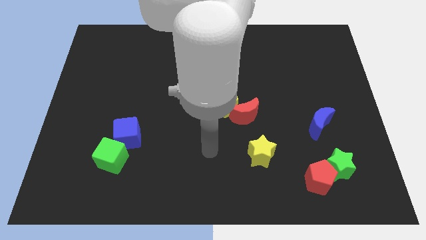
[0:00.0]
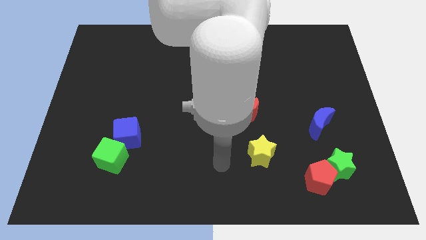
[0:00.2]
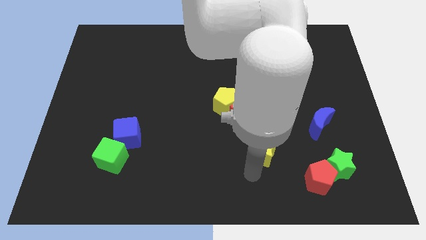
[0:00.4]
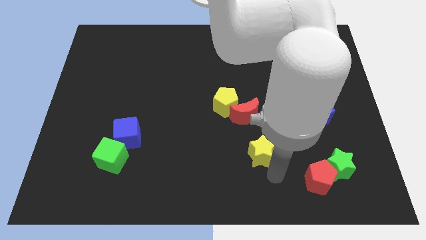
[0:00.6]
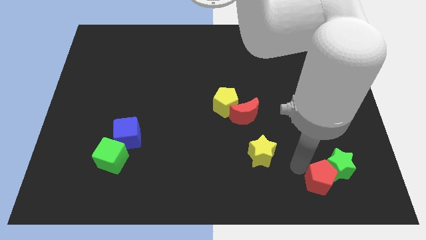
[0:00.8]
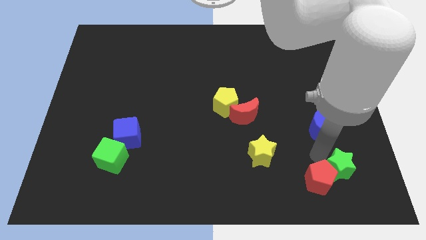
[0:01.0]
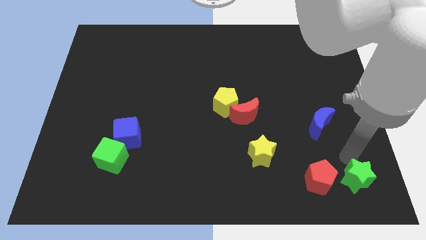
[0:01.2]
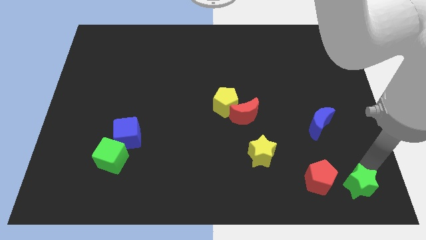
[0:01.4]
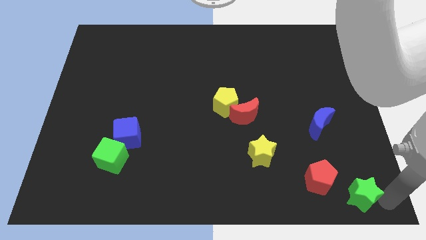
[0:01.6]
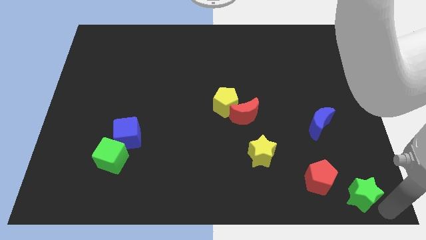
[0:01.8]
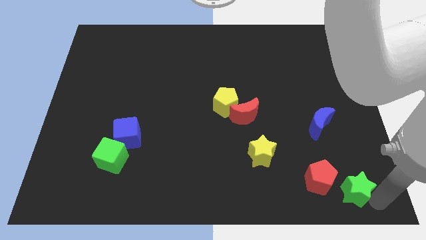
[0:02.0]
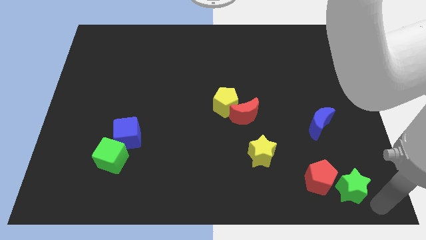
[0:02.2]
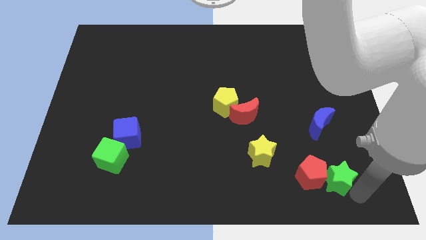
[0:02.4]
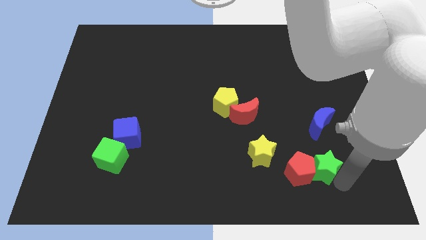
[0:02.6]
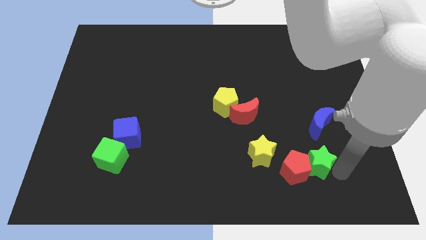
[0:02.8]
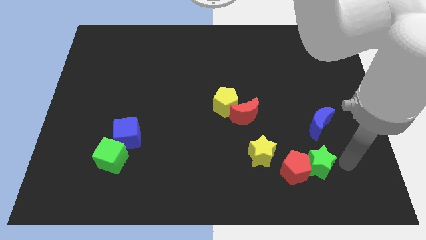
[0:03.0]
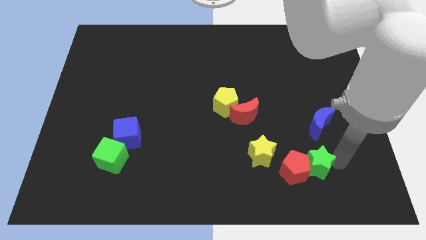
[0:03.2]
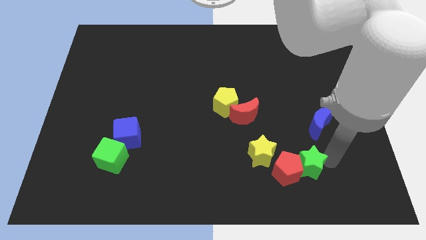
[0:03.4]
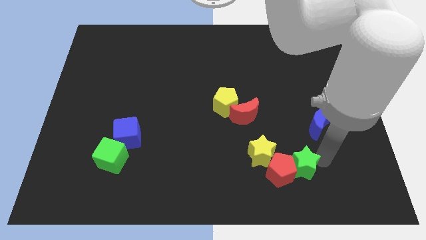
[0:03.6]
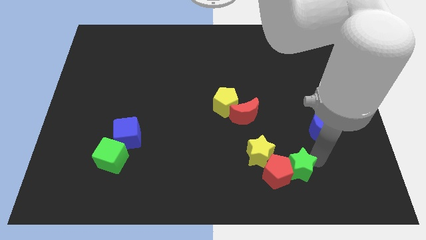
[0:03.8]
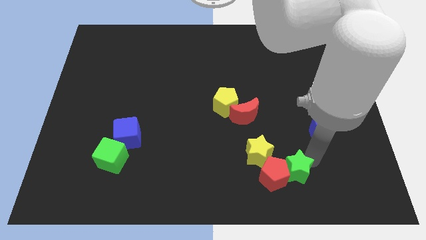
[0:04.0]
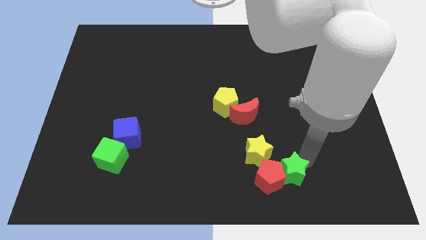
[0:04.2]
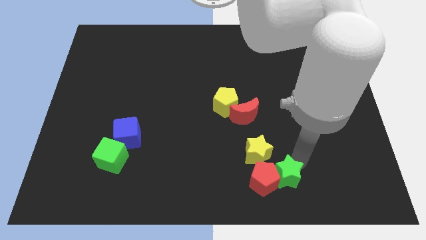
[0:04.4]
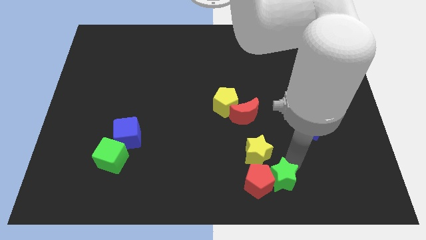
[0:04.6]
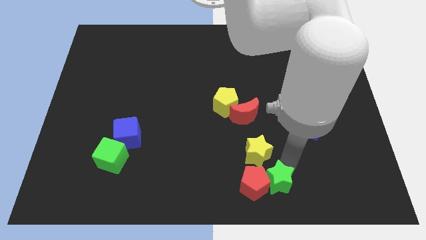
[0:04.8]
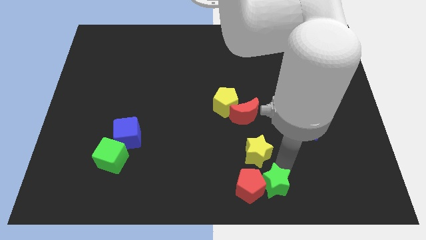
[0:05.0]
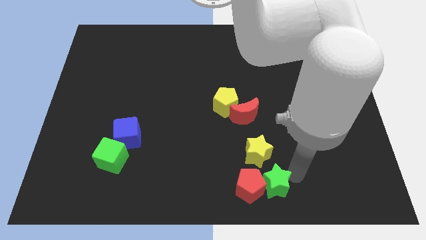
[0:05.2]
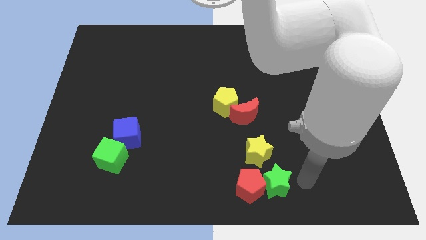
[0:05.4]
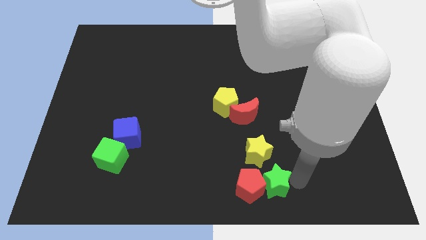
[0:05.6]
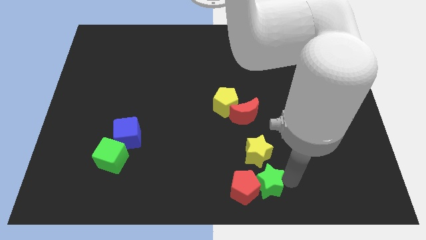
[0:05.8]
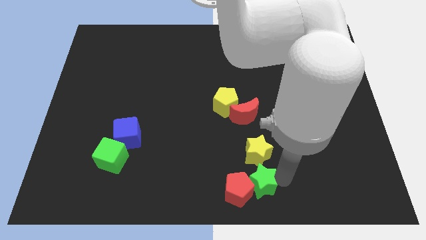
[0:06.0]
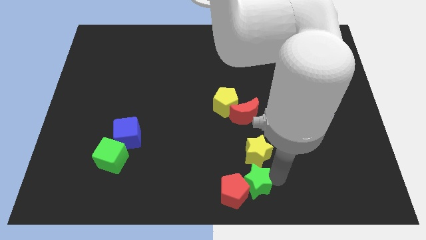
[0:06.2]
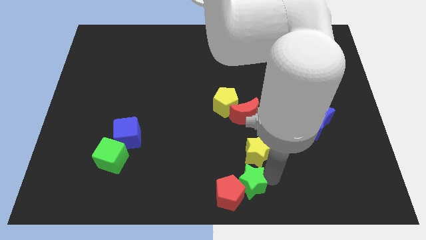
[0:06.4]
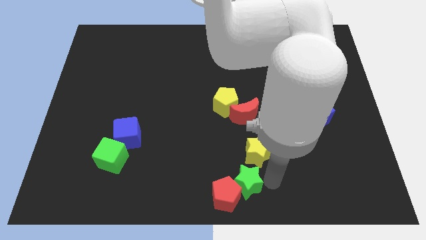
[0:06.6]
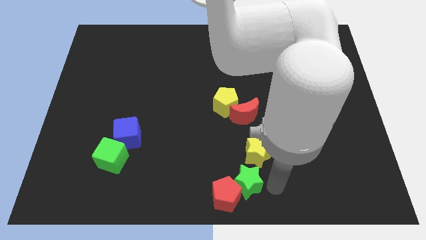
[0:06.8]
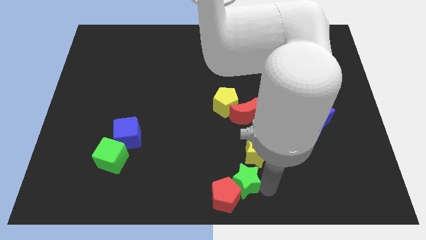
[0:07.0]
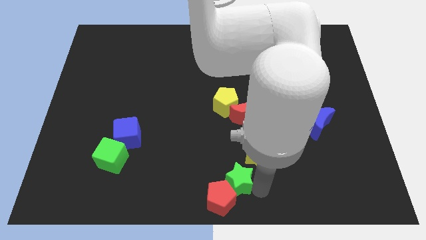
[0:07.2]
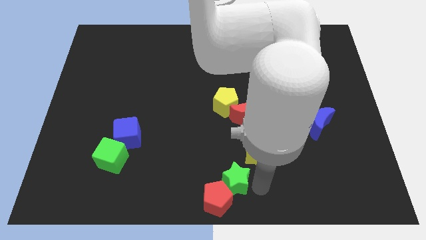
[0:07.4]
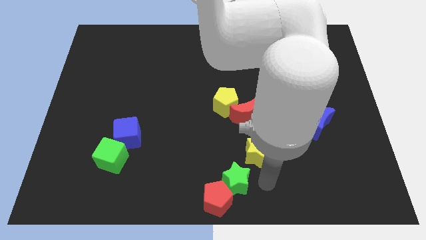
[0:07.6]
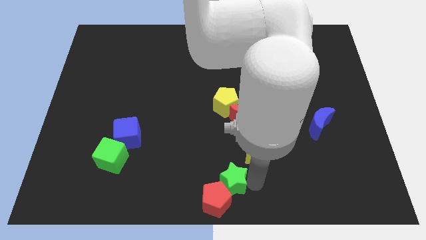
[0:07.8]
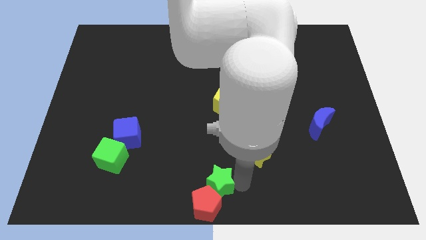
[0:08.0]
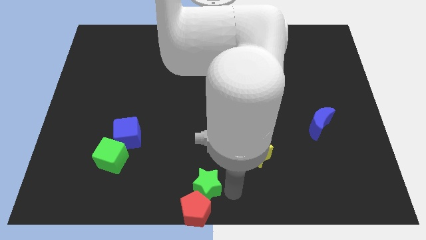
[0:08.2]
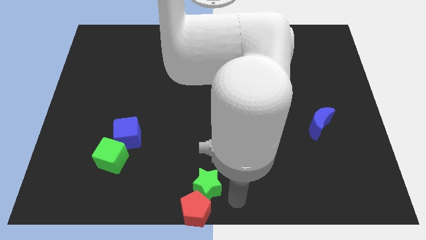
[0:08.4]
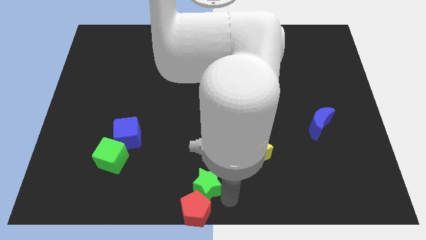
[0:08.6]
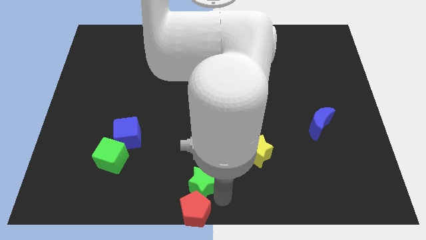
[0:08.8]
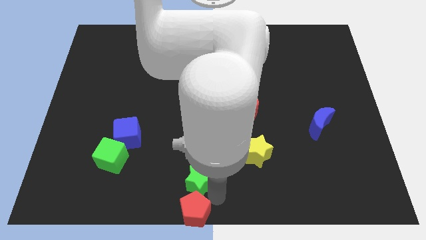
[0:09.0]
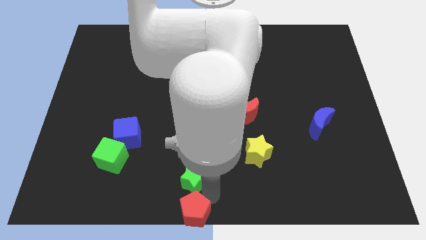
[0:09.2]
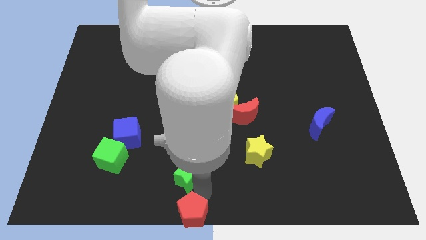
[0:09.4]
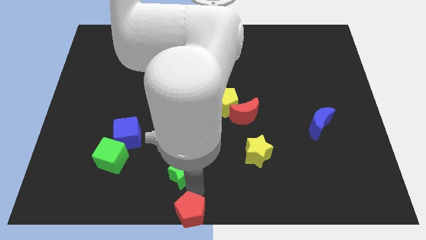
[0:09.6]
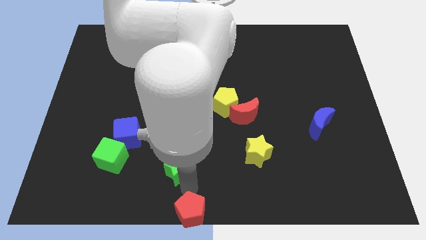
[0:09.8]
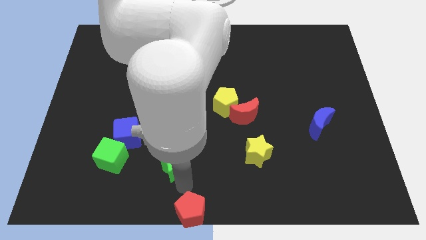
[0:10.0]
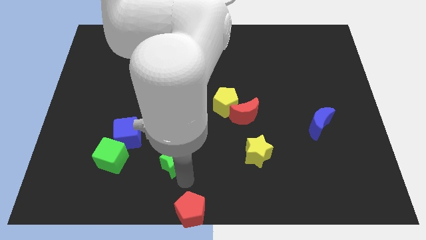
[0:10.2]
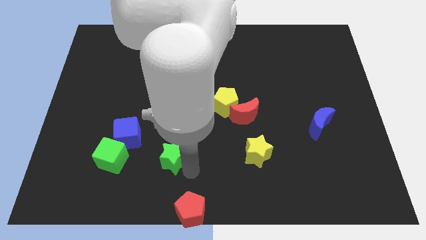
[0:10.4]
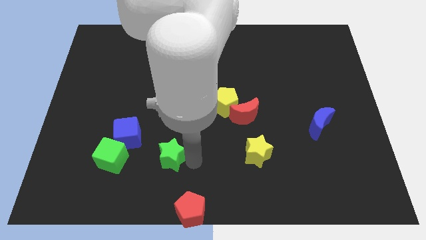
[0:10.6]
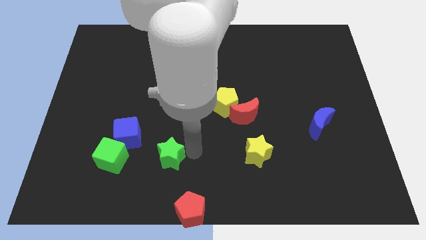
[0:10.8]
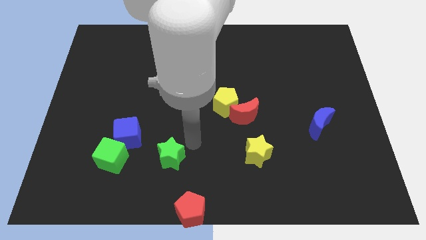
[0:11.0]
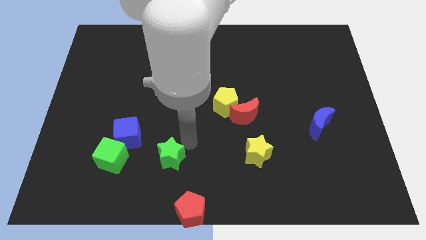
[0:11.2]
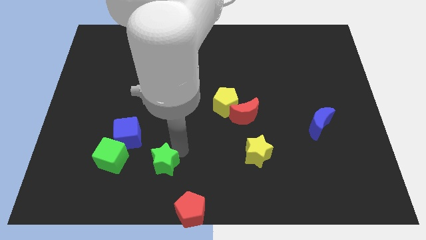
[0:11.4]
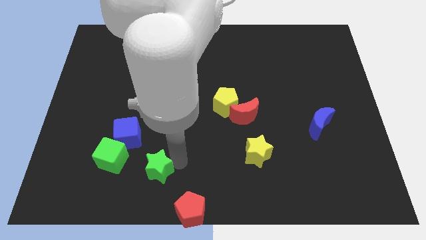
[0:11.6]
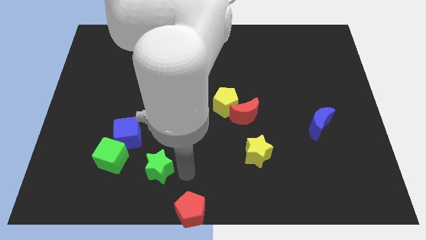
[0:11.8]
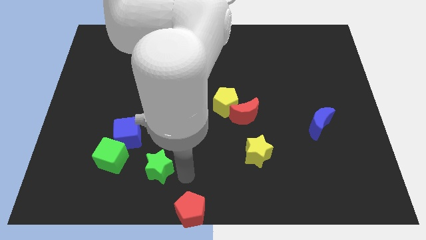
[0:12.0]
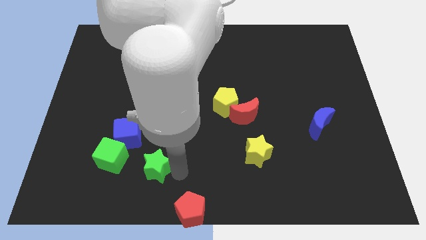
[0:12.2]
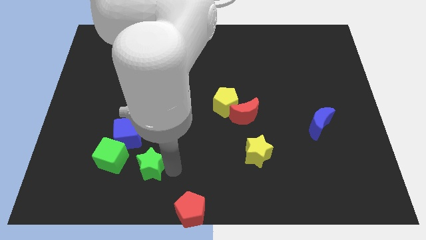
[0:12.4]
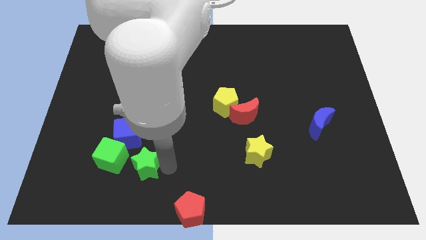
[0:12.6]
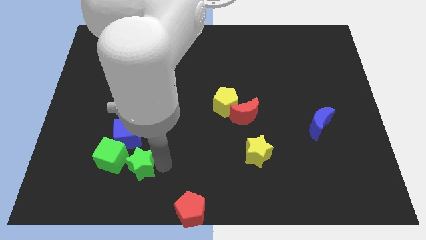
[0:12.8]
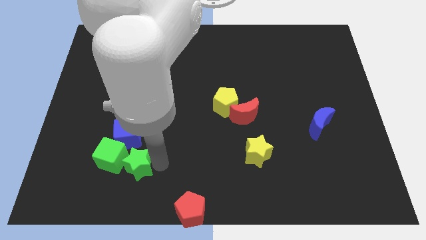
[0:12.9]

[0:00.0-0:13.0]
put the green star close to the green cube

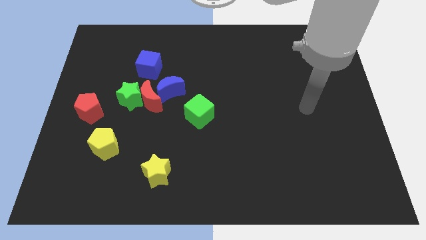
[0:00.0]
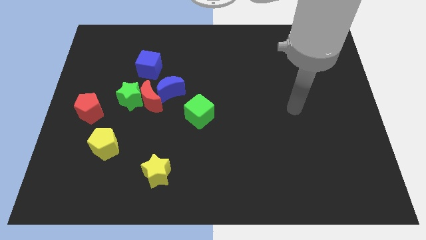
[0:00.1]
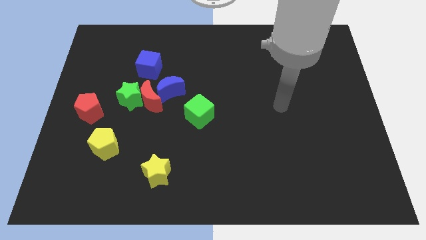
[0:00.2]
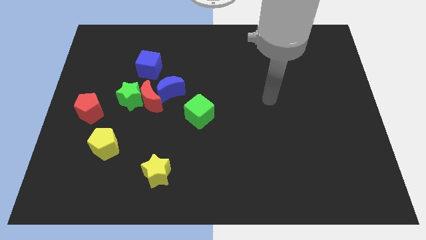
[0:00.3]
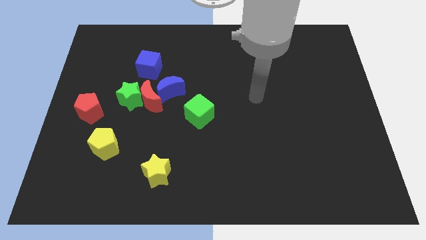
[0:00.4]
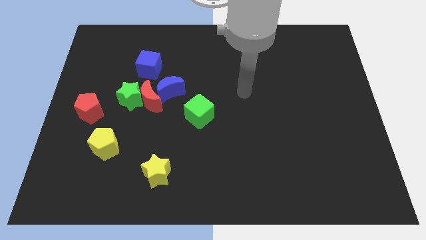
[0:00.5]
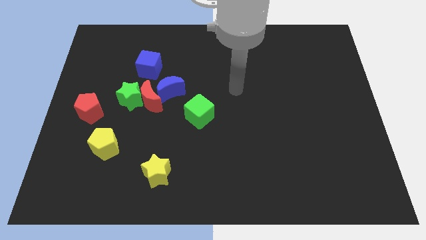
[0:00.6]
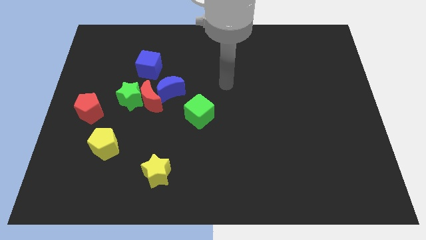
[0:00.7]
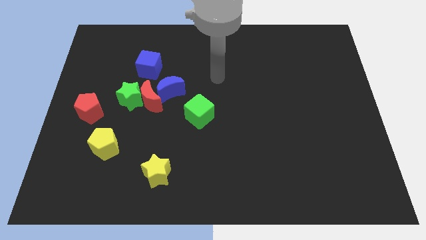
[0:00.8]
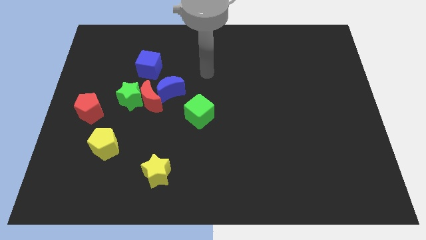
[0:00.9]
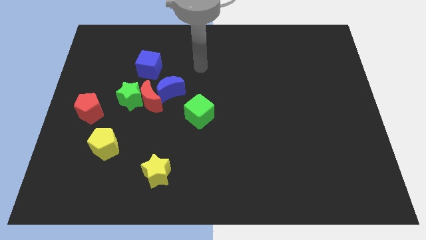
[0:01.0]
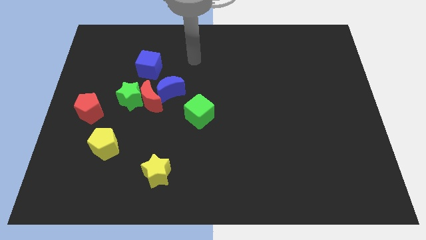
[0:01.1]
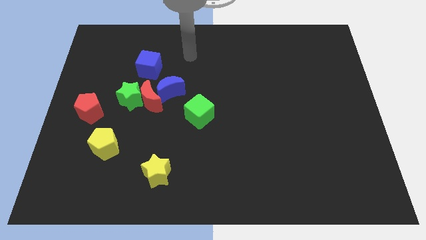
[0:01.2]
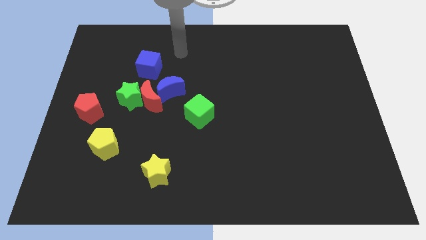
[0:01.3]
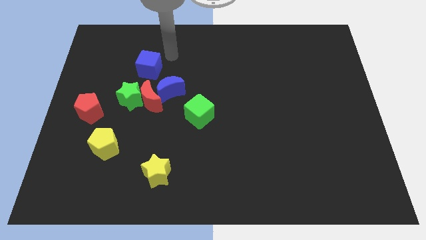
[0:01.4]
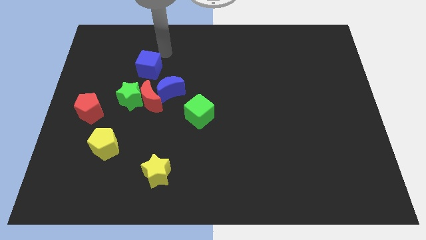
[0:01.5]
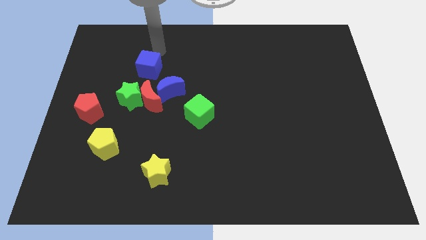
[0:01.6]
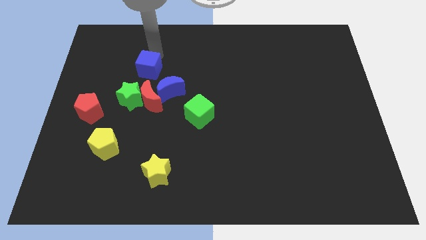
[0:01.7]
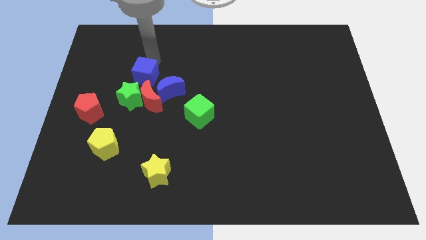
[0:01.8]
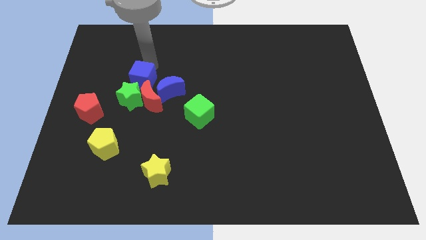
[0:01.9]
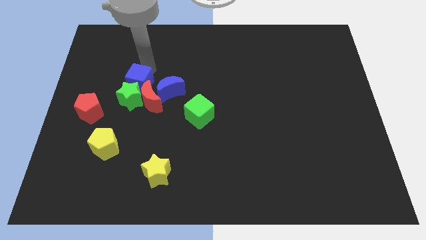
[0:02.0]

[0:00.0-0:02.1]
push the blue cube towards the green star
